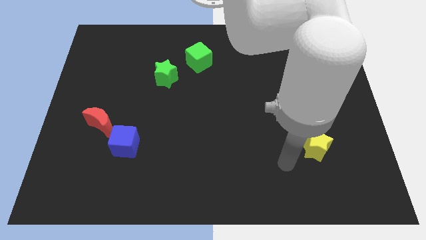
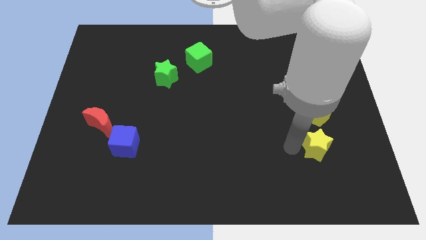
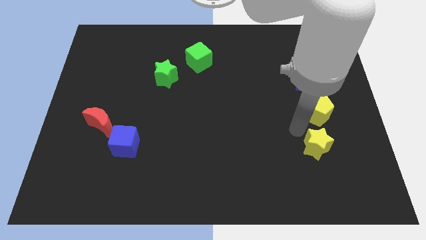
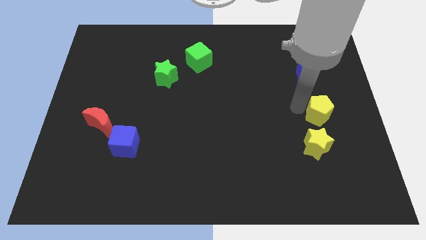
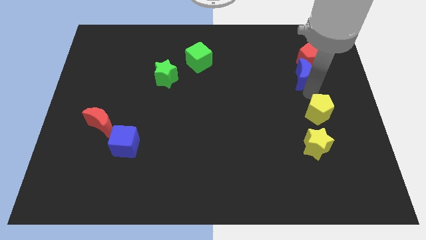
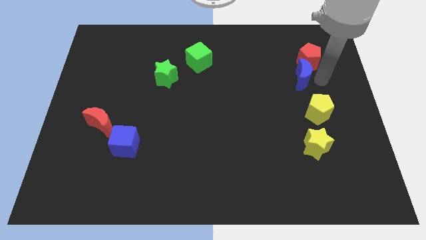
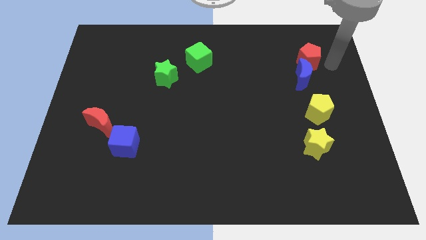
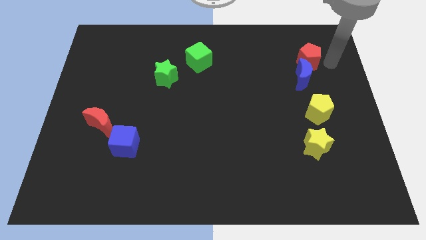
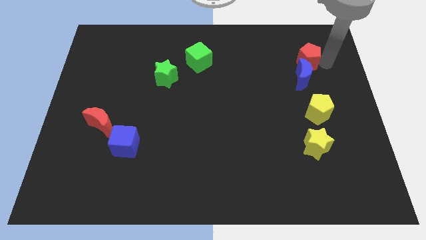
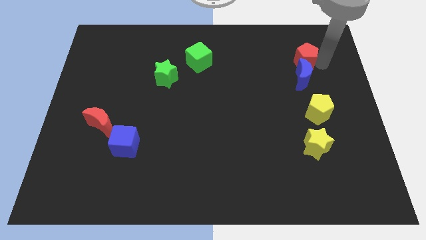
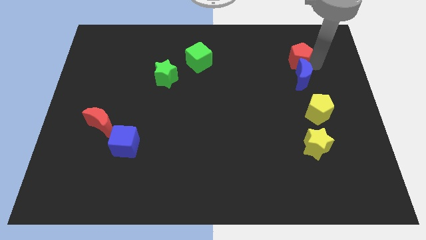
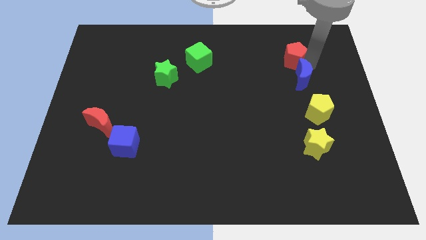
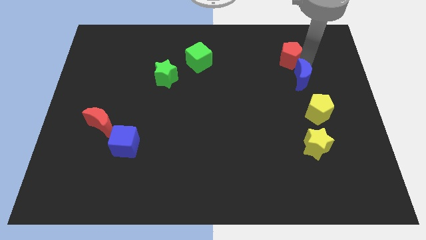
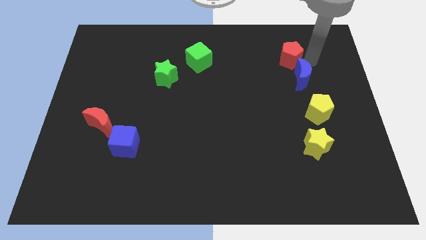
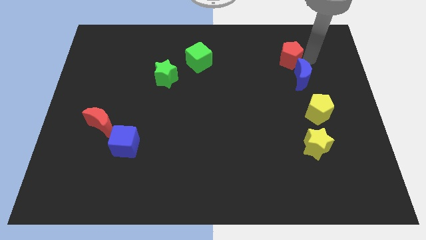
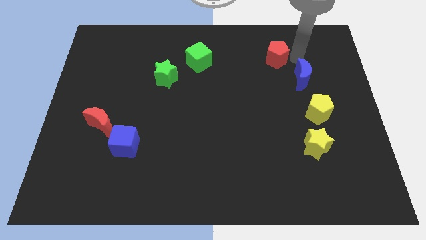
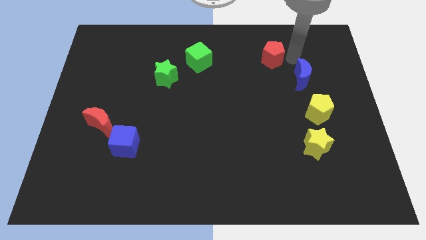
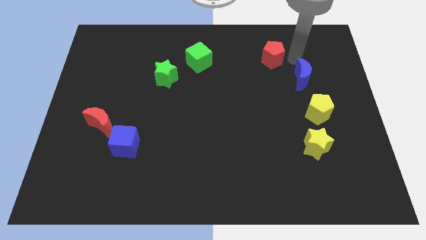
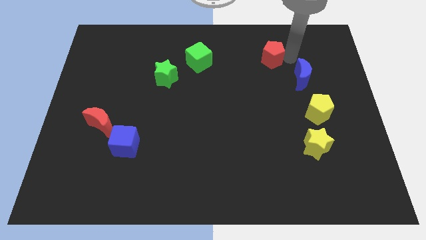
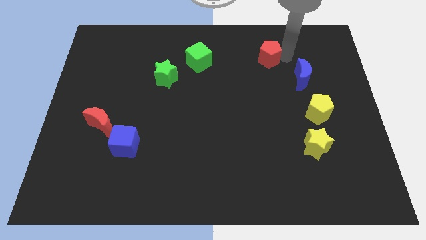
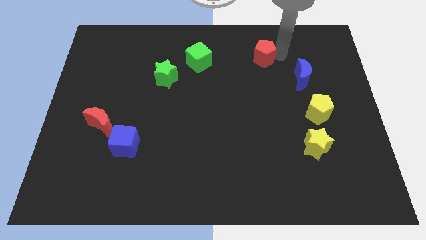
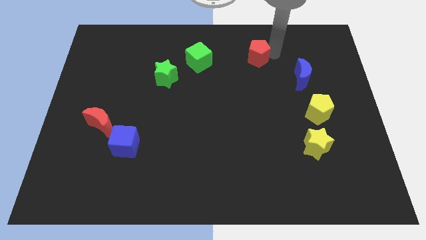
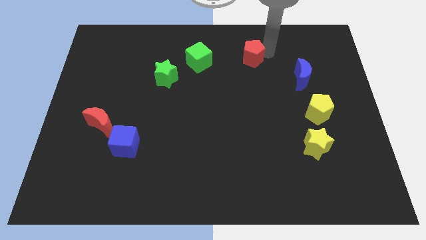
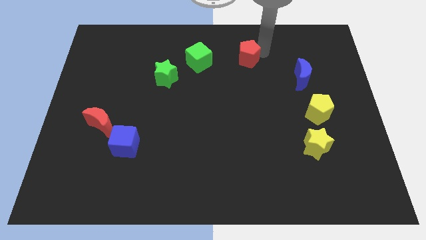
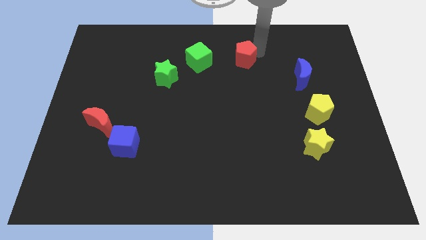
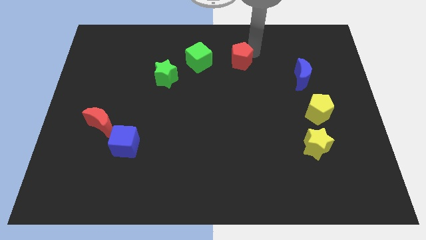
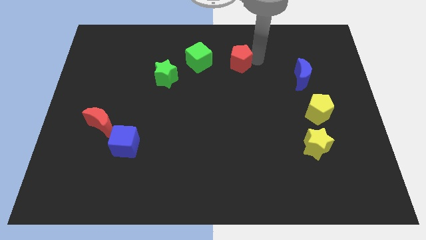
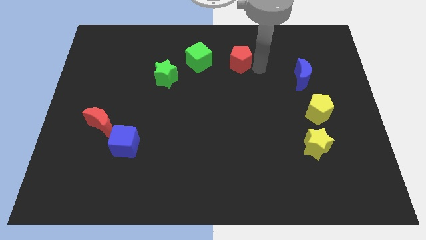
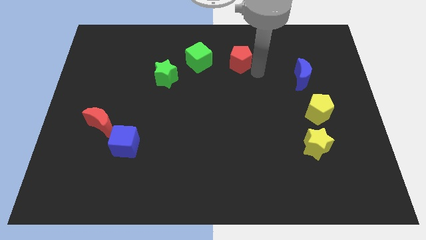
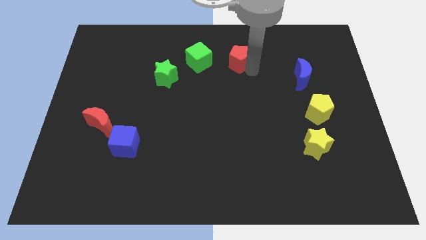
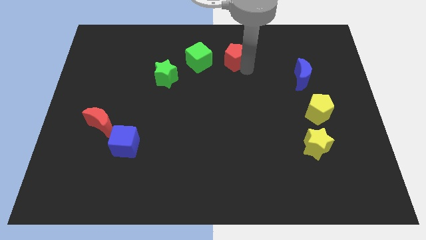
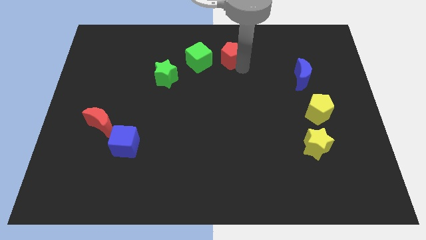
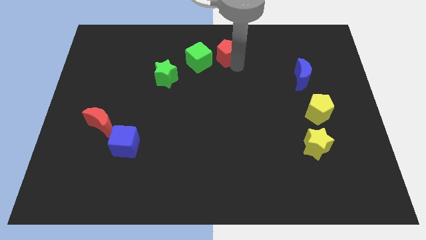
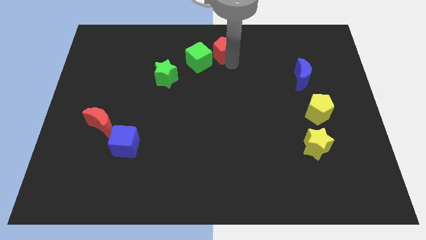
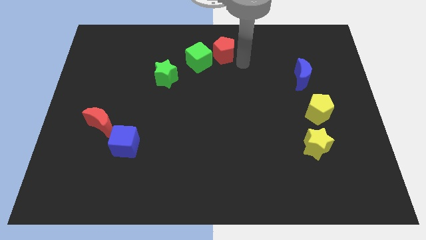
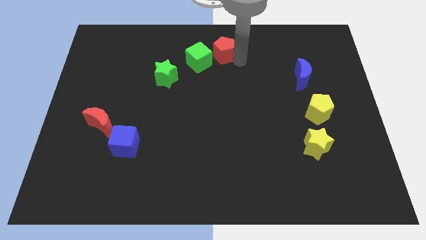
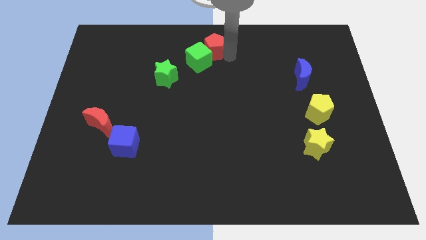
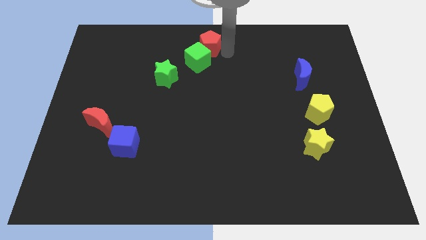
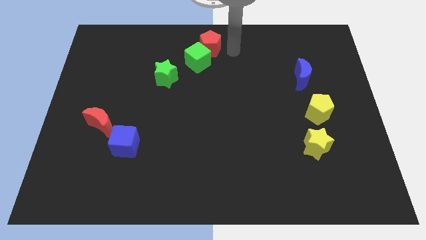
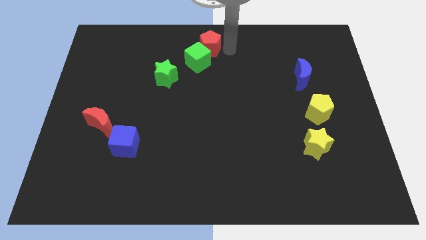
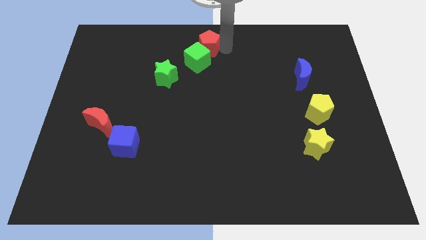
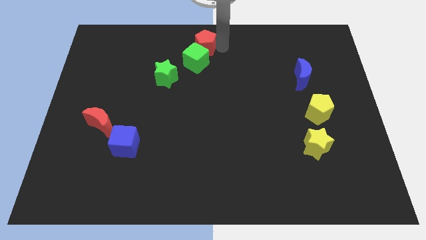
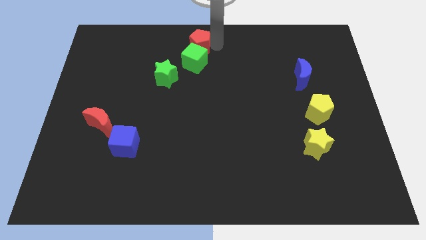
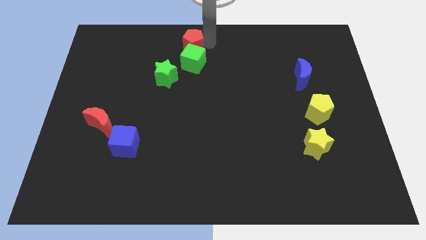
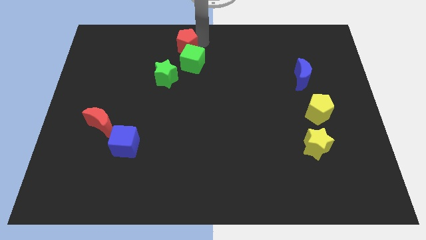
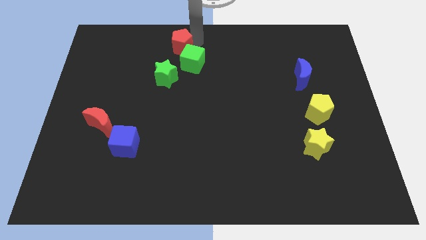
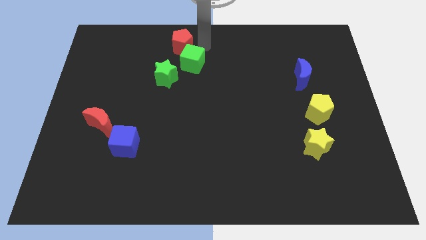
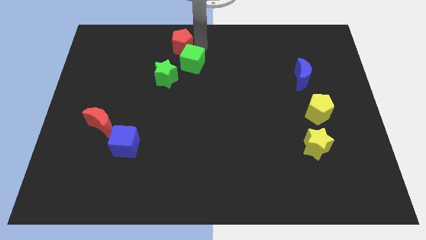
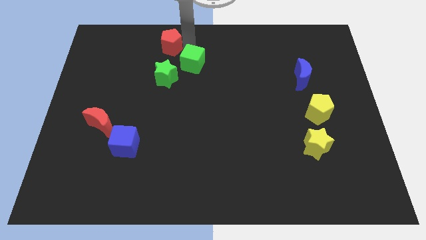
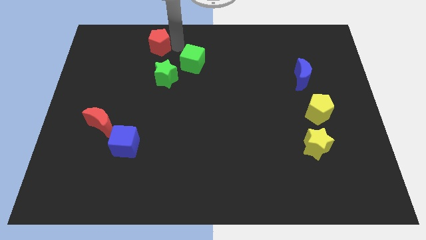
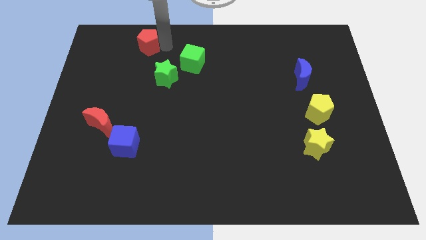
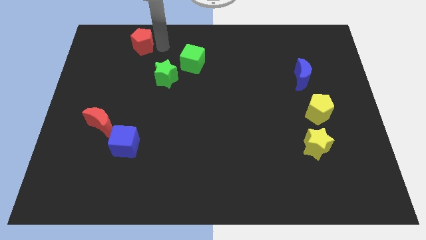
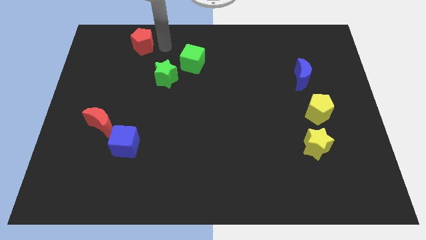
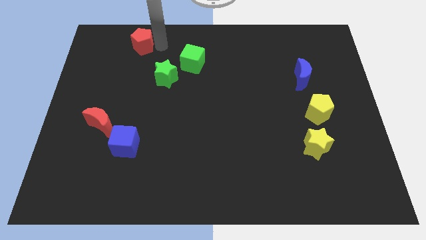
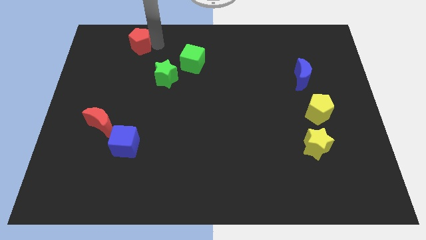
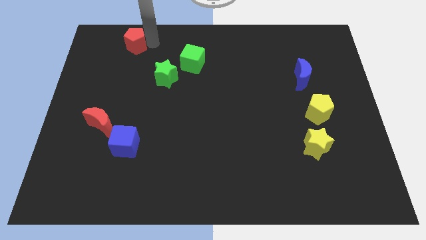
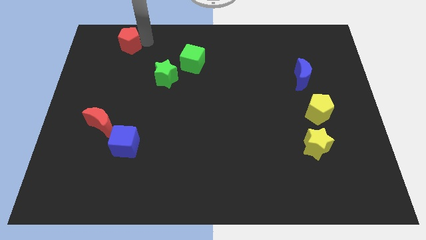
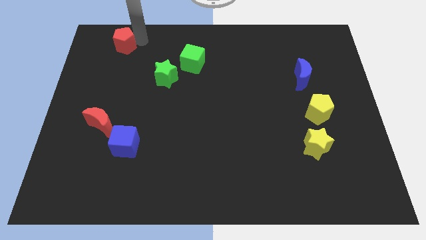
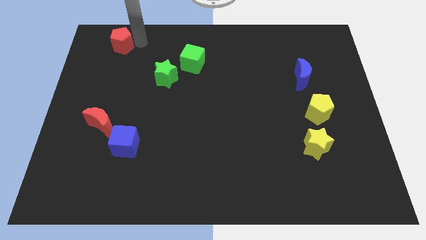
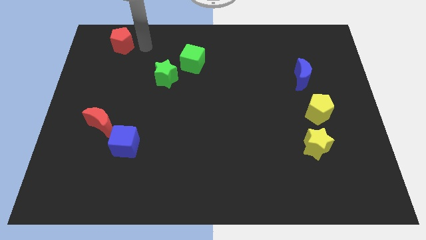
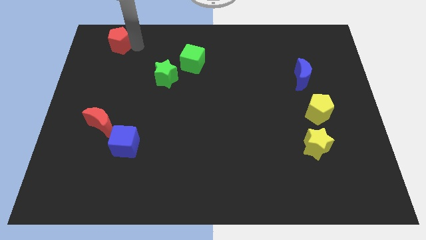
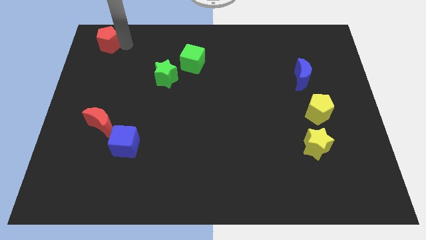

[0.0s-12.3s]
slide the red pentagon to the top left

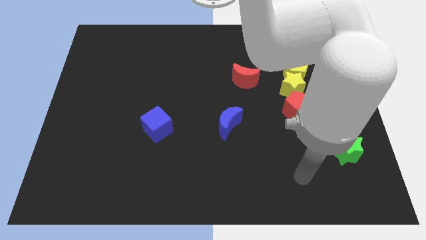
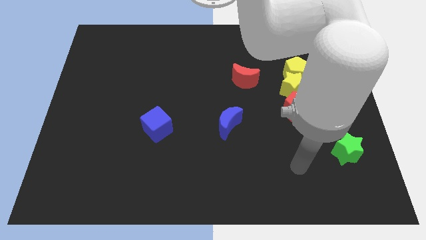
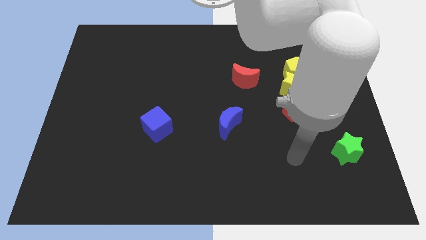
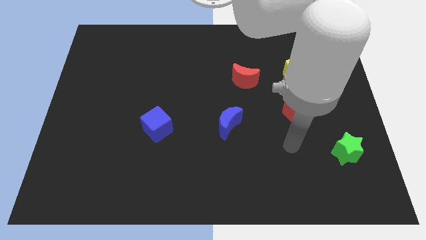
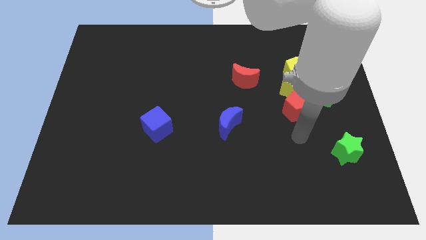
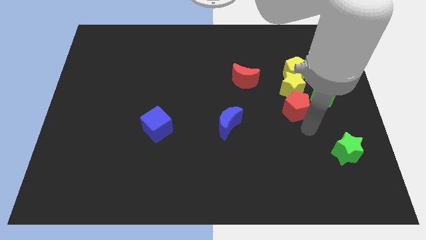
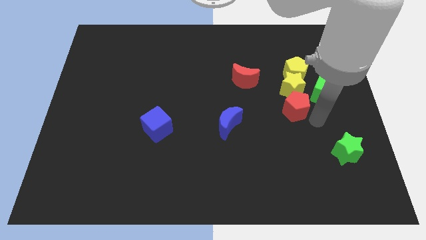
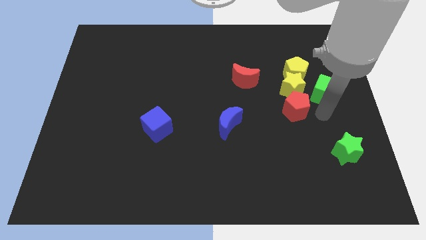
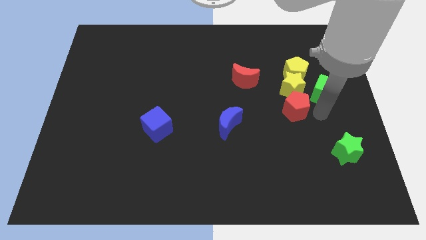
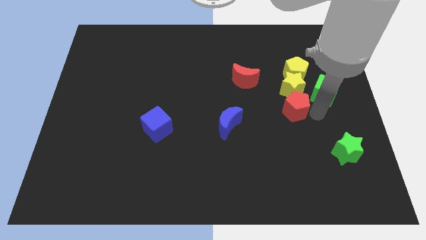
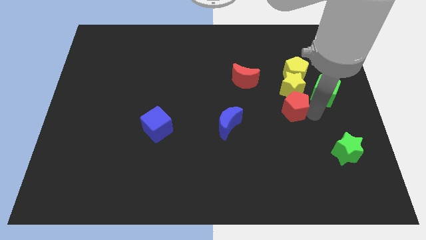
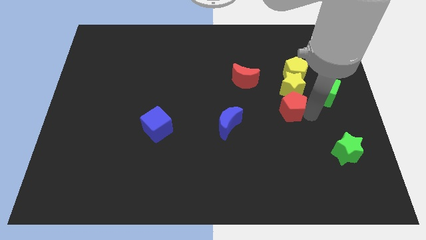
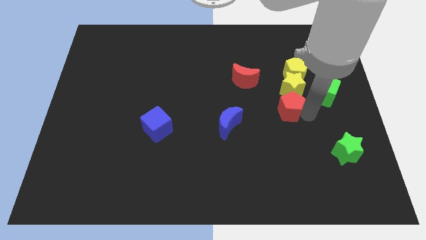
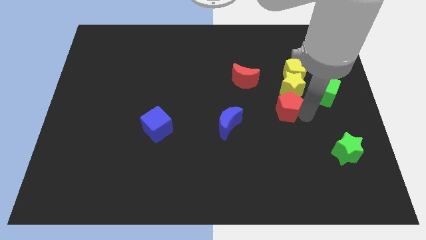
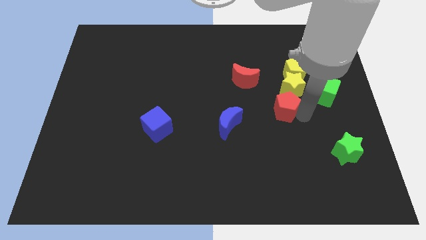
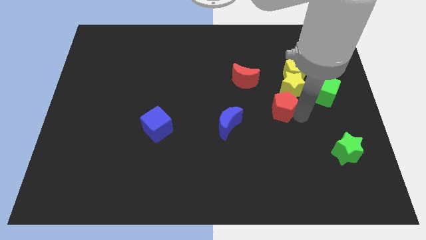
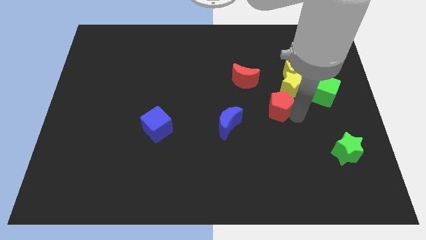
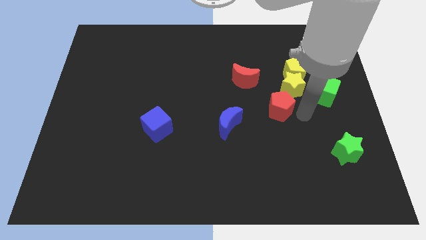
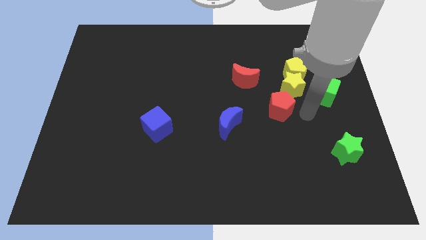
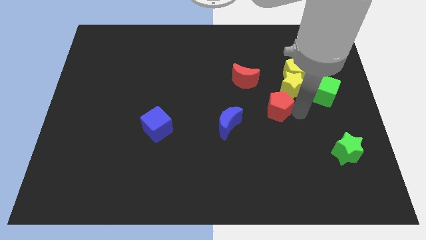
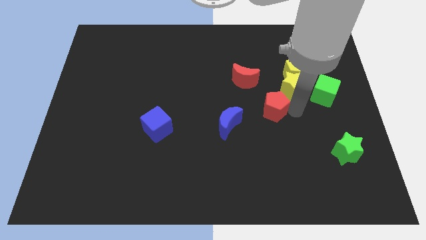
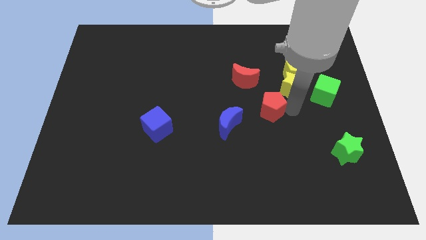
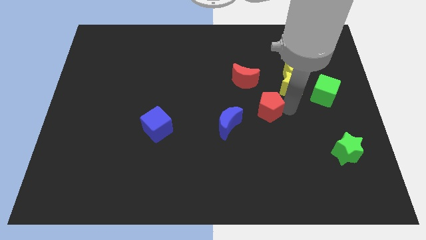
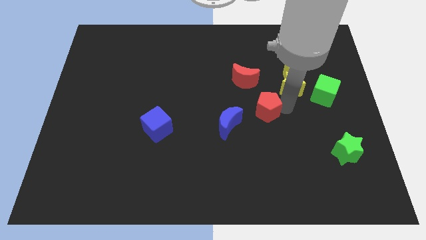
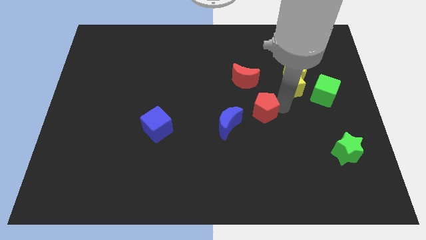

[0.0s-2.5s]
slide the red pentagon to the middle of the board
